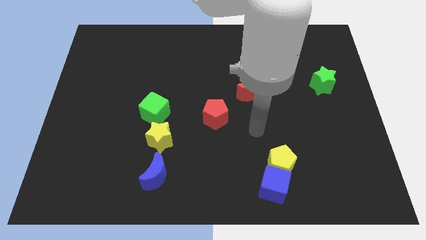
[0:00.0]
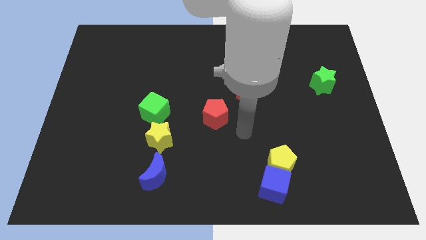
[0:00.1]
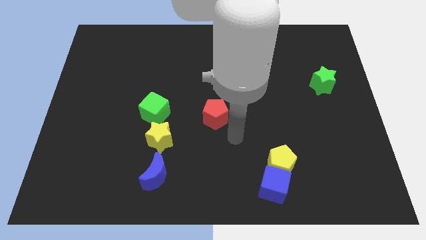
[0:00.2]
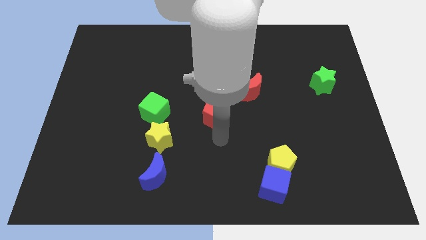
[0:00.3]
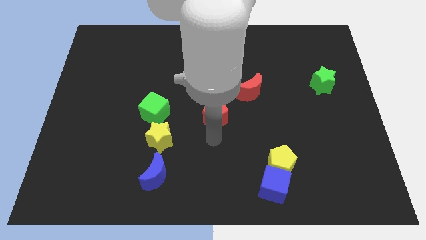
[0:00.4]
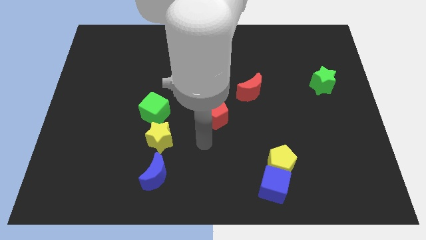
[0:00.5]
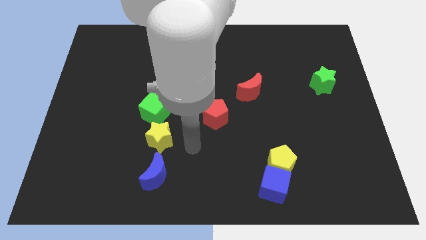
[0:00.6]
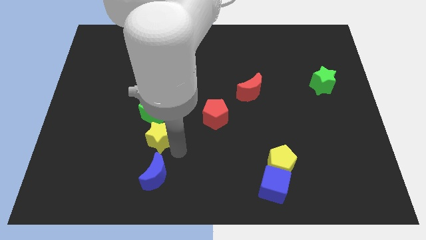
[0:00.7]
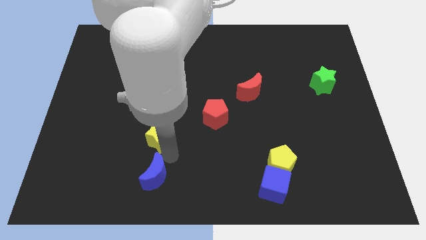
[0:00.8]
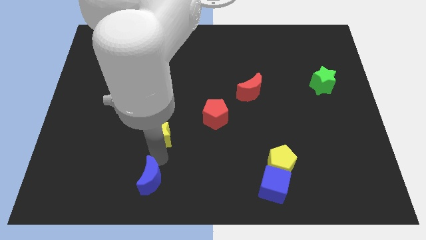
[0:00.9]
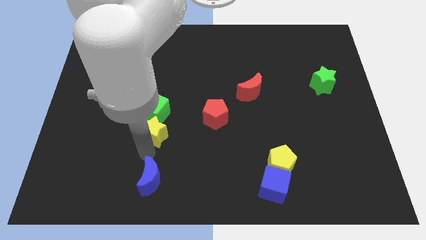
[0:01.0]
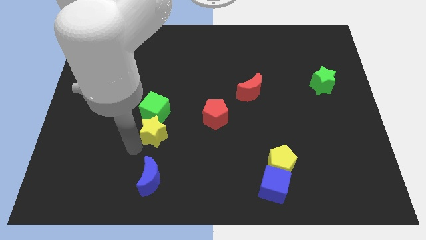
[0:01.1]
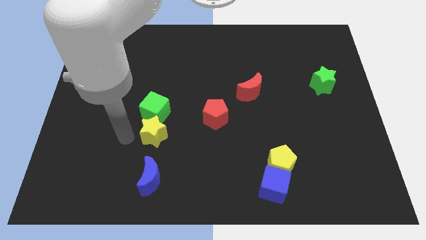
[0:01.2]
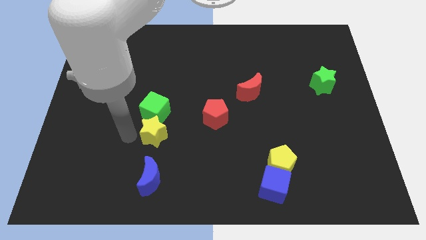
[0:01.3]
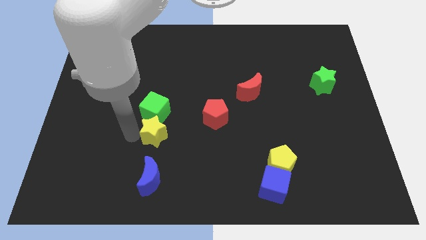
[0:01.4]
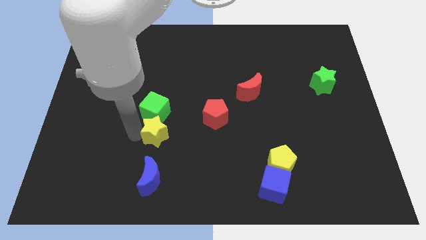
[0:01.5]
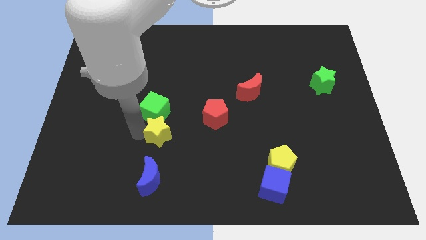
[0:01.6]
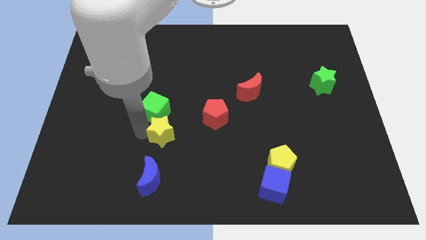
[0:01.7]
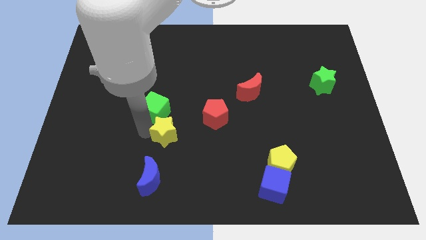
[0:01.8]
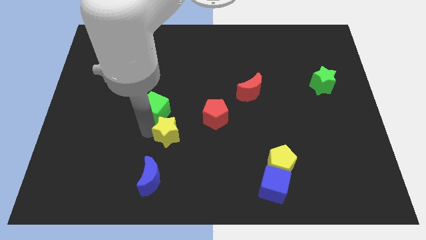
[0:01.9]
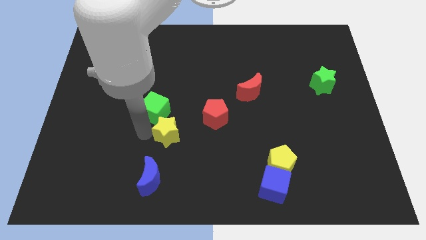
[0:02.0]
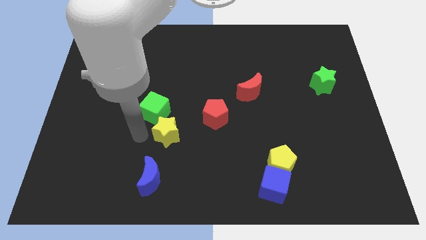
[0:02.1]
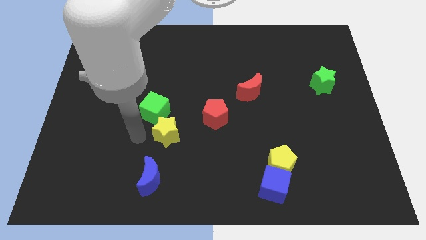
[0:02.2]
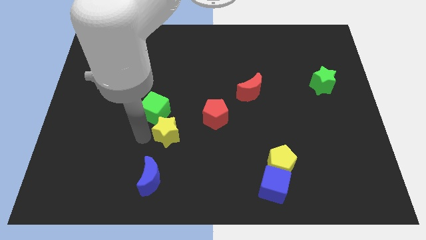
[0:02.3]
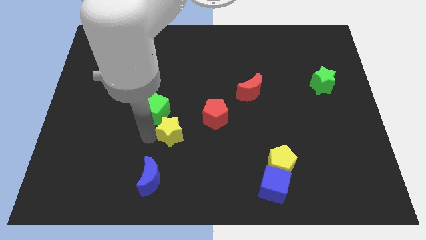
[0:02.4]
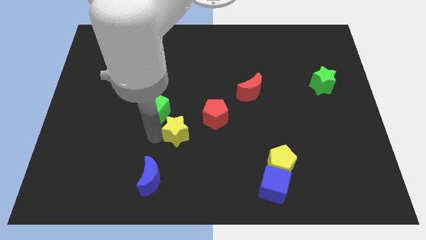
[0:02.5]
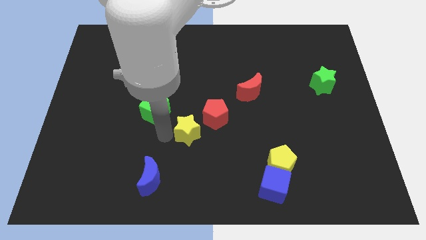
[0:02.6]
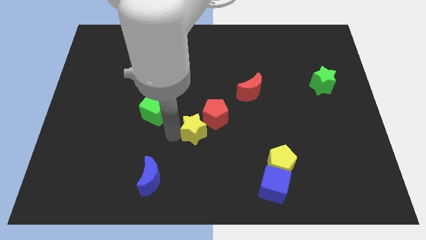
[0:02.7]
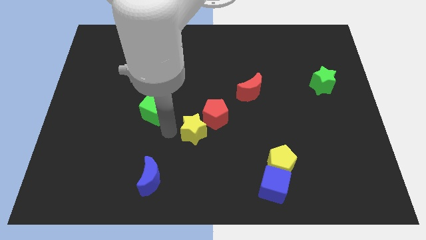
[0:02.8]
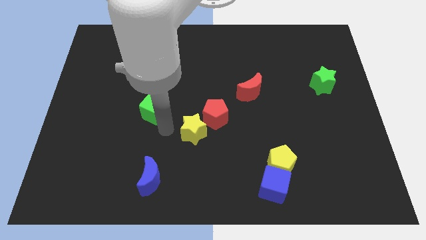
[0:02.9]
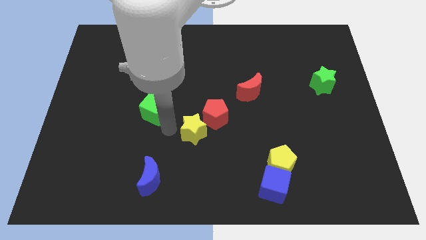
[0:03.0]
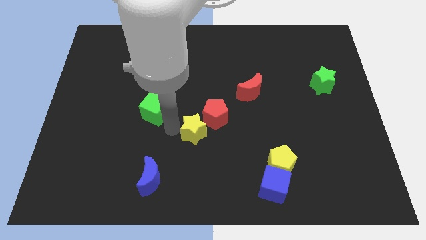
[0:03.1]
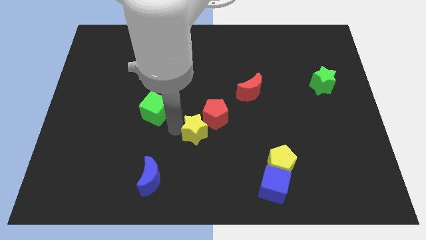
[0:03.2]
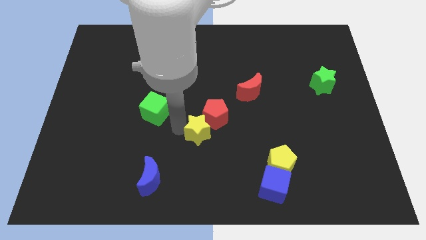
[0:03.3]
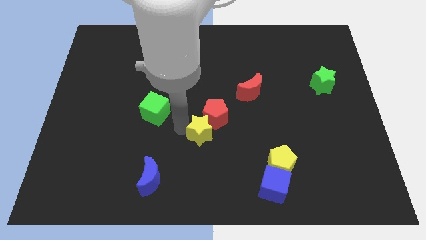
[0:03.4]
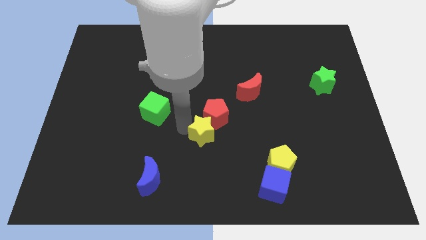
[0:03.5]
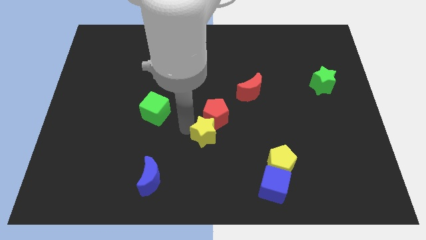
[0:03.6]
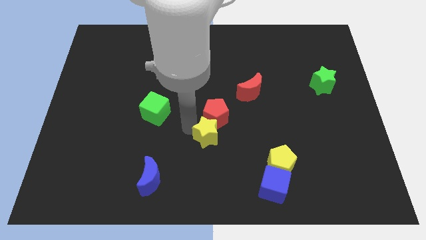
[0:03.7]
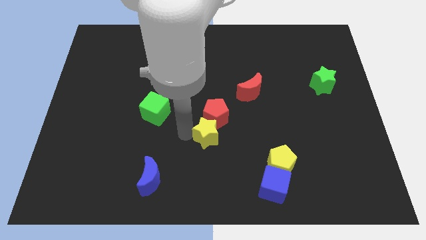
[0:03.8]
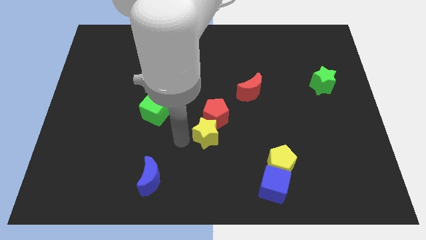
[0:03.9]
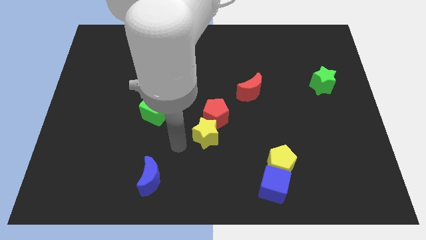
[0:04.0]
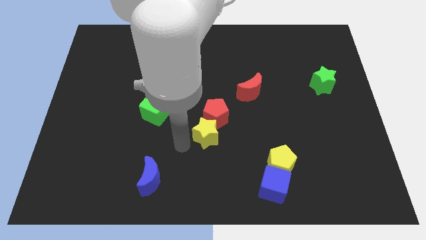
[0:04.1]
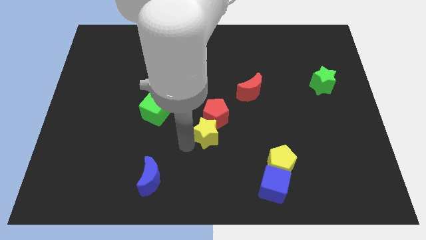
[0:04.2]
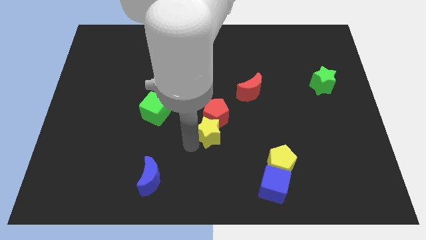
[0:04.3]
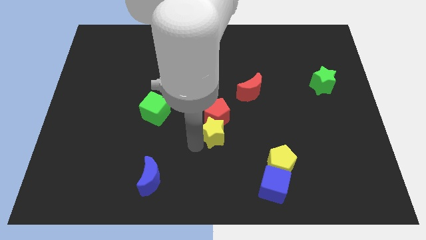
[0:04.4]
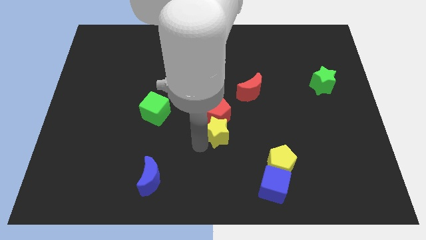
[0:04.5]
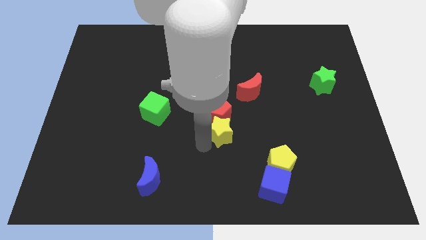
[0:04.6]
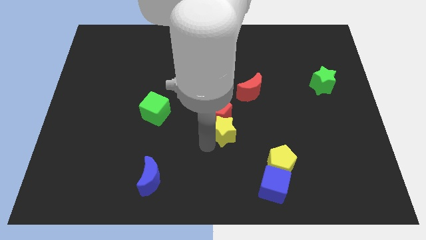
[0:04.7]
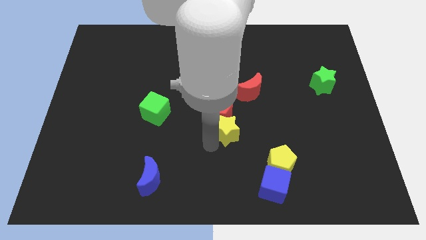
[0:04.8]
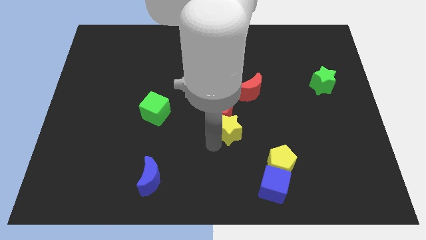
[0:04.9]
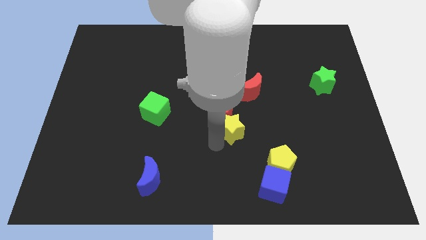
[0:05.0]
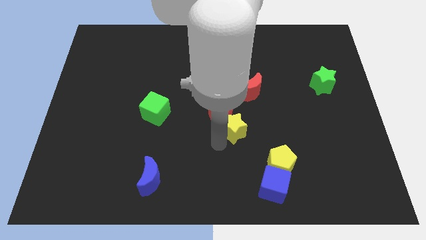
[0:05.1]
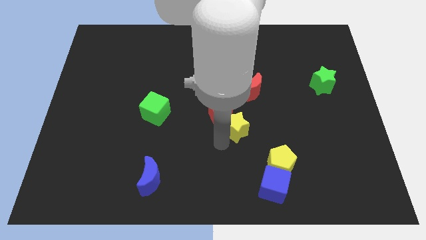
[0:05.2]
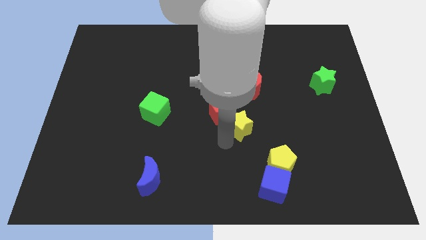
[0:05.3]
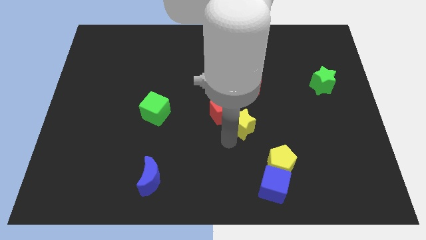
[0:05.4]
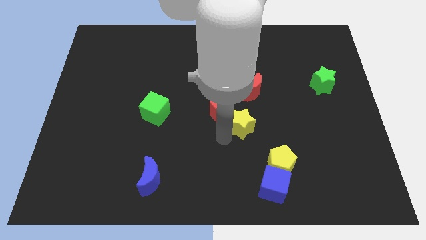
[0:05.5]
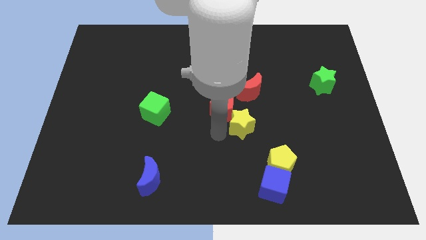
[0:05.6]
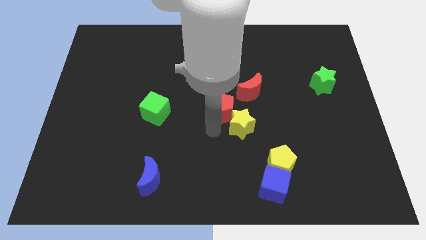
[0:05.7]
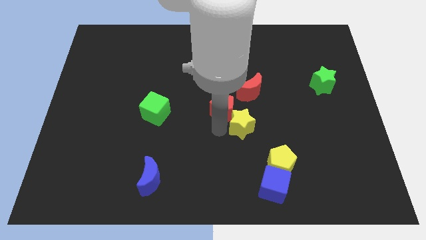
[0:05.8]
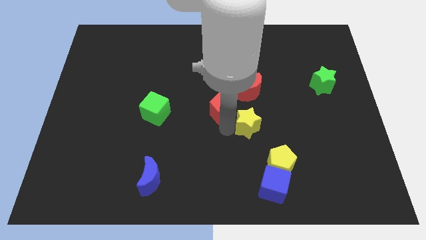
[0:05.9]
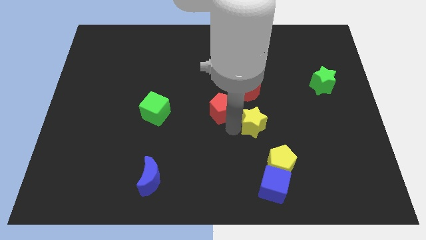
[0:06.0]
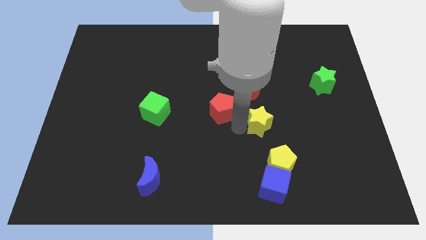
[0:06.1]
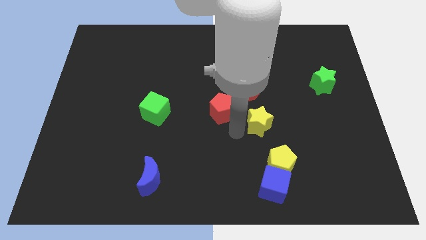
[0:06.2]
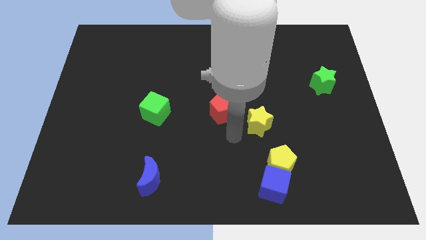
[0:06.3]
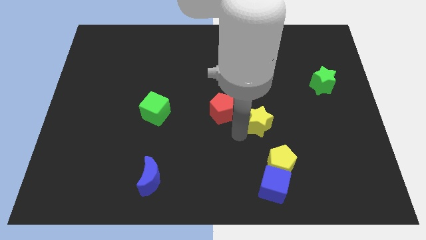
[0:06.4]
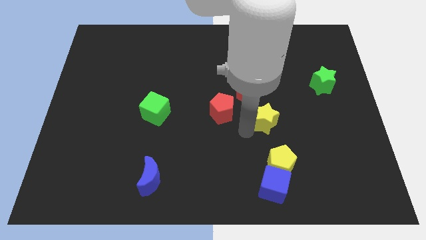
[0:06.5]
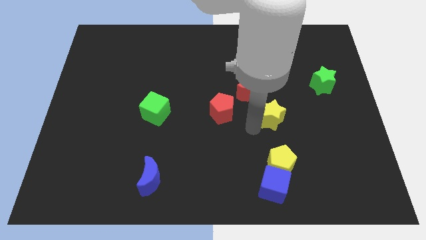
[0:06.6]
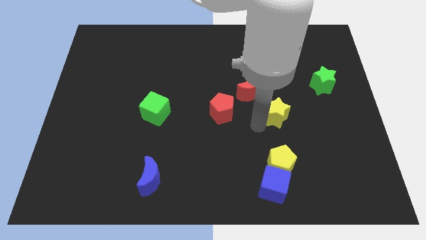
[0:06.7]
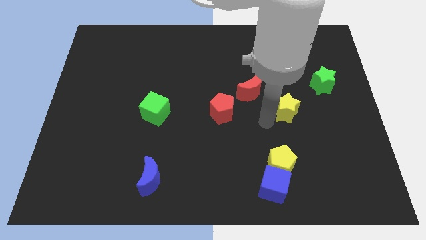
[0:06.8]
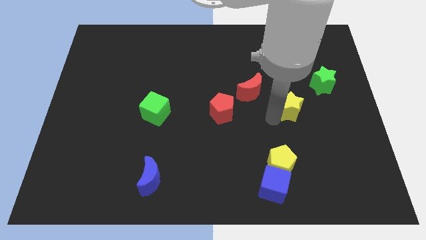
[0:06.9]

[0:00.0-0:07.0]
put the yellow star to the bottom left of the green star

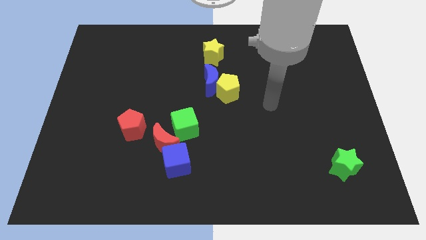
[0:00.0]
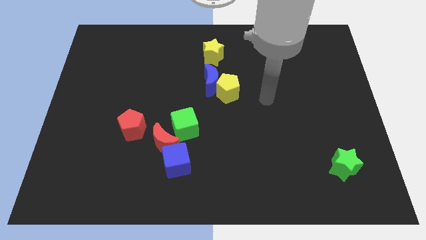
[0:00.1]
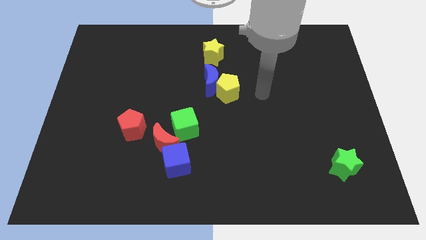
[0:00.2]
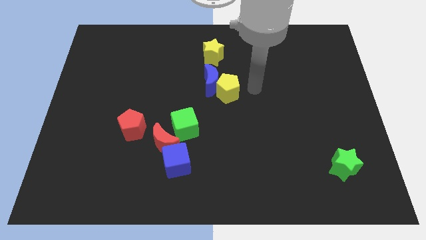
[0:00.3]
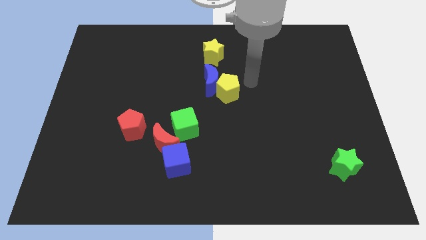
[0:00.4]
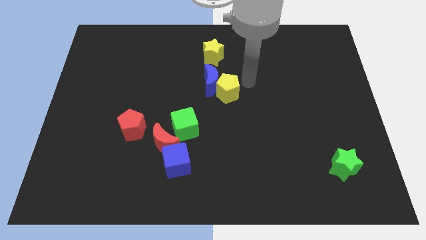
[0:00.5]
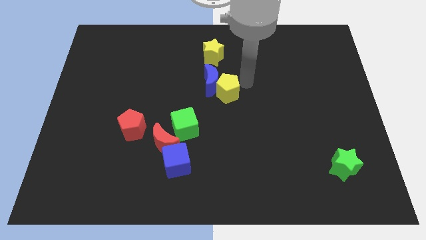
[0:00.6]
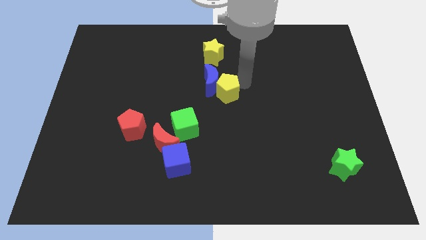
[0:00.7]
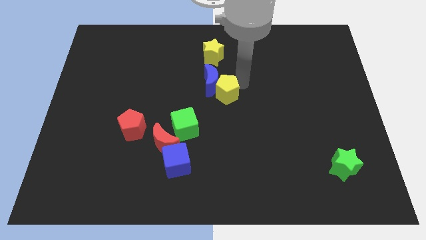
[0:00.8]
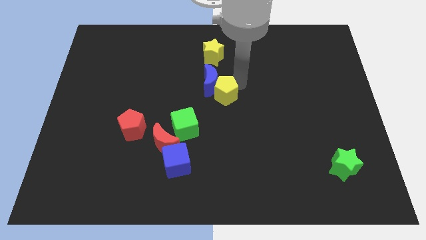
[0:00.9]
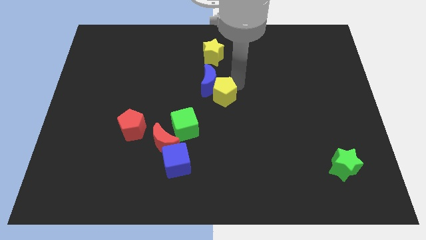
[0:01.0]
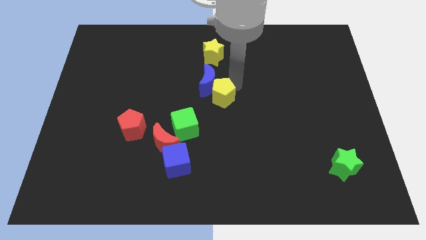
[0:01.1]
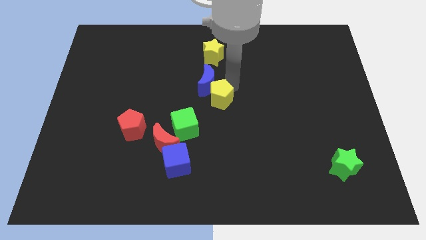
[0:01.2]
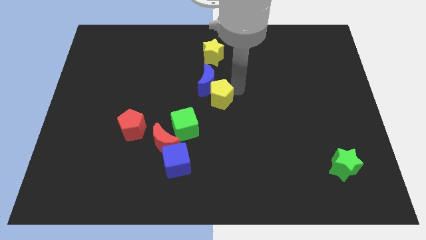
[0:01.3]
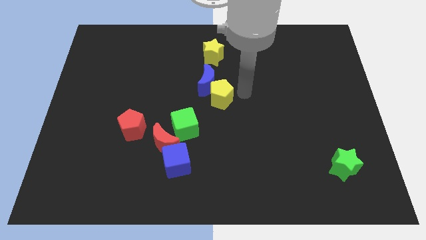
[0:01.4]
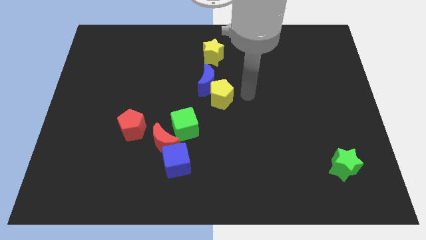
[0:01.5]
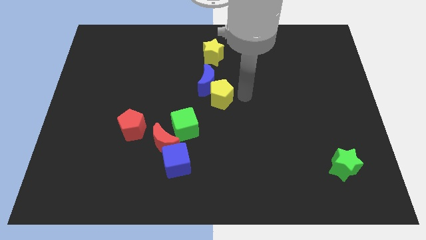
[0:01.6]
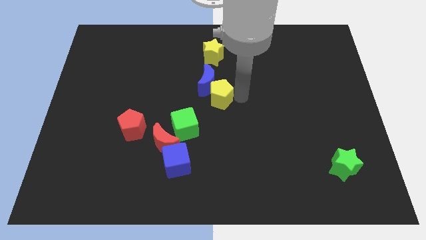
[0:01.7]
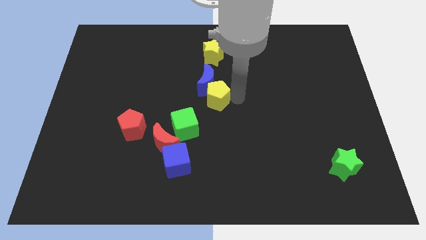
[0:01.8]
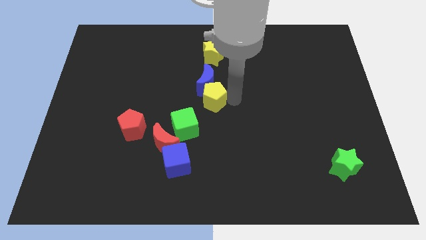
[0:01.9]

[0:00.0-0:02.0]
put the yellow pentagon to the bottom left side of the blue moon
